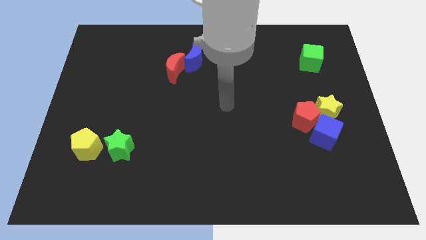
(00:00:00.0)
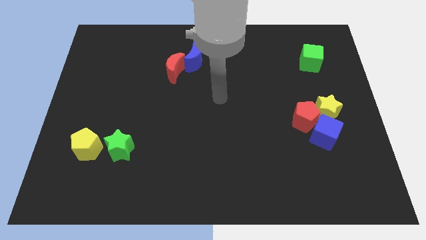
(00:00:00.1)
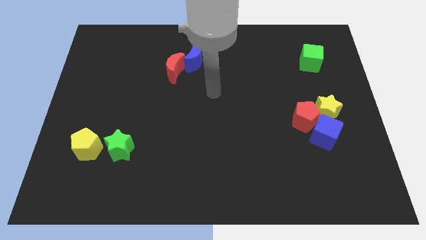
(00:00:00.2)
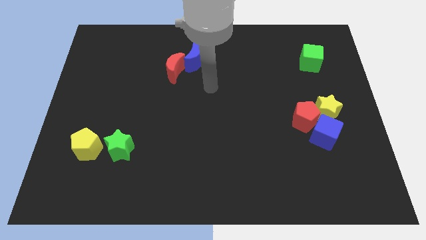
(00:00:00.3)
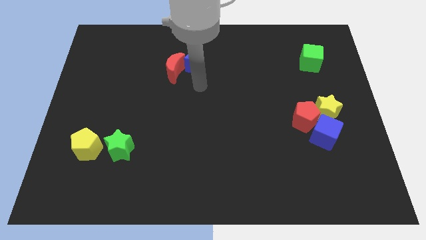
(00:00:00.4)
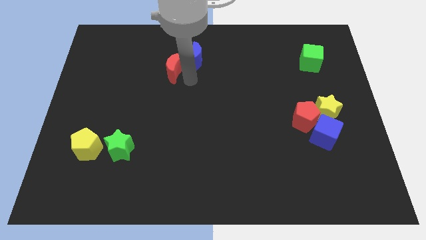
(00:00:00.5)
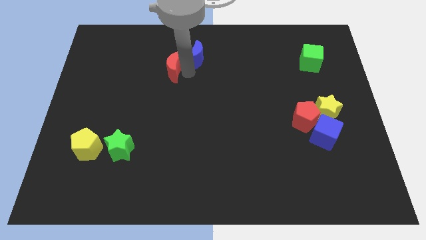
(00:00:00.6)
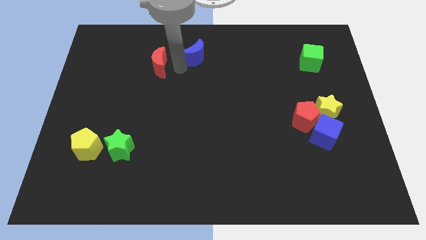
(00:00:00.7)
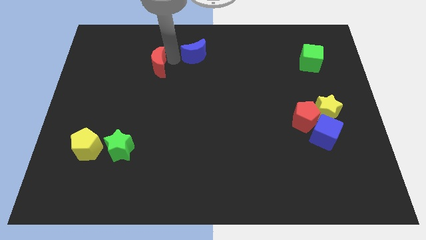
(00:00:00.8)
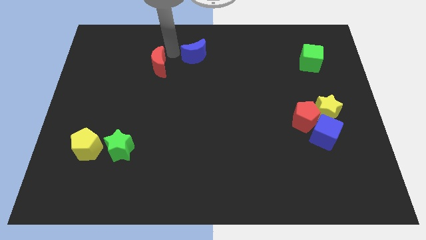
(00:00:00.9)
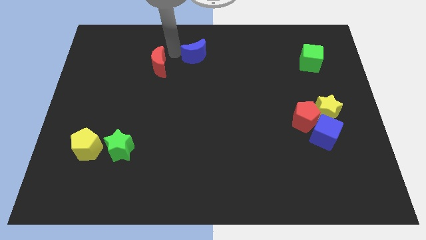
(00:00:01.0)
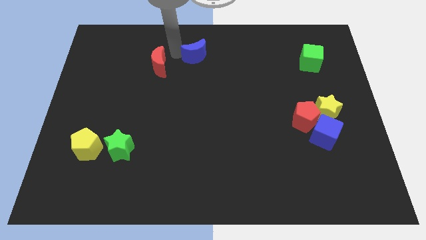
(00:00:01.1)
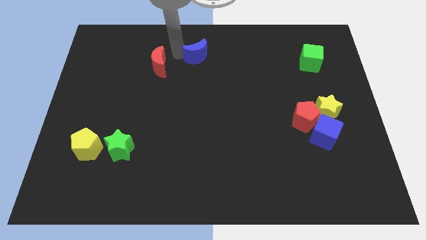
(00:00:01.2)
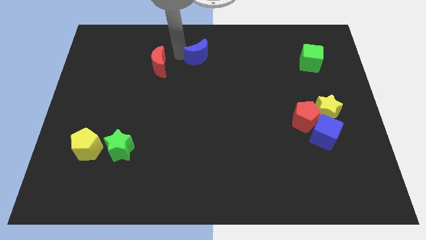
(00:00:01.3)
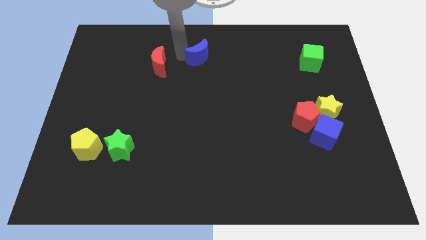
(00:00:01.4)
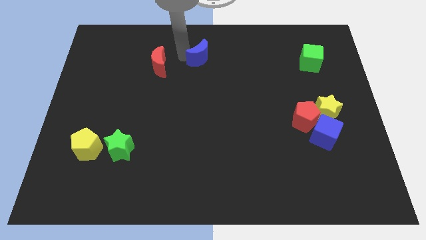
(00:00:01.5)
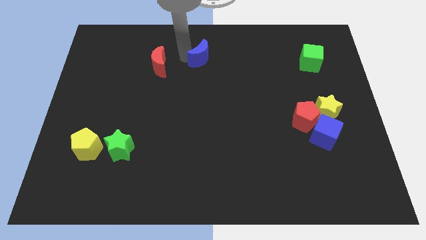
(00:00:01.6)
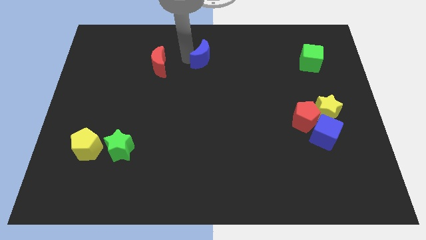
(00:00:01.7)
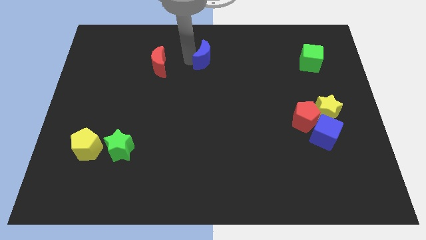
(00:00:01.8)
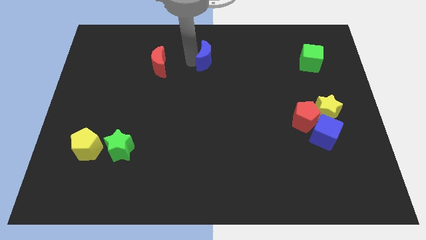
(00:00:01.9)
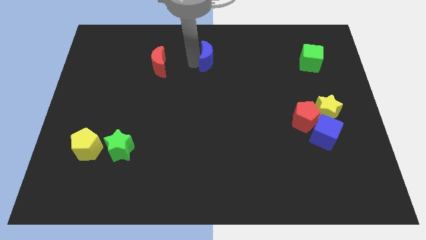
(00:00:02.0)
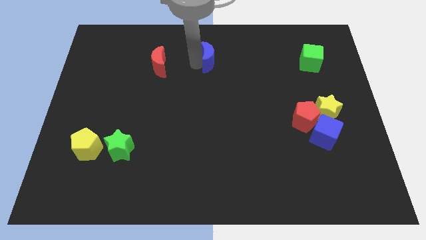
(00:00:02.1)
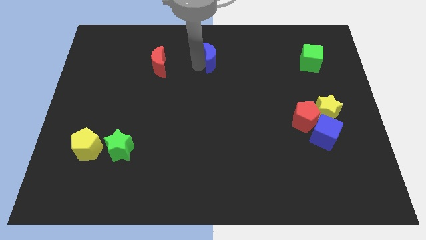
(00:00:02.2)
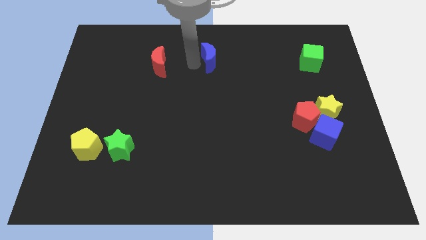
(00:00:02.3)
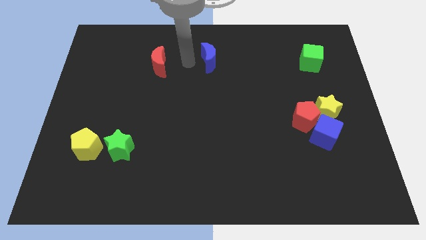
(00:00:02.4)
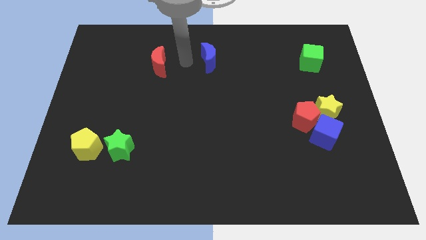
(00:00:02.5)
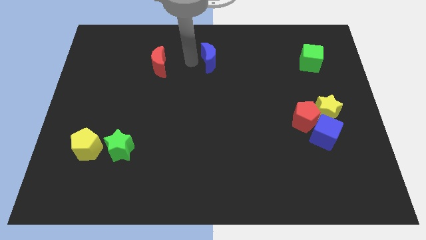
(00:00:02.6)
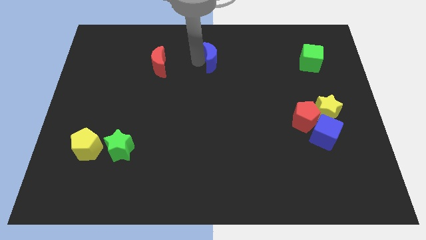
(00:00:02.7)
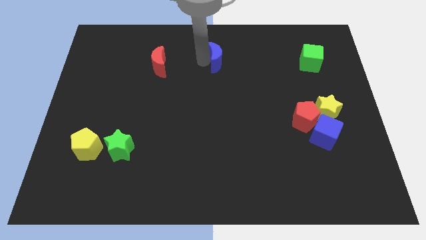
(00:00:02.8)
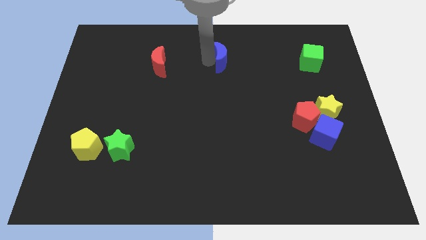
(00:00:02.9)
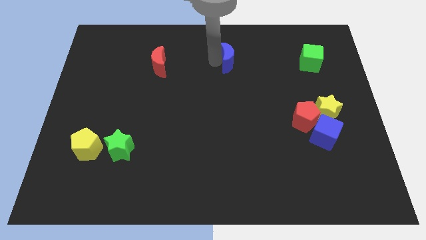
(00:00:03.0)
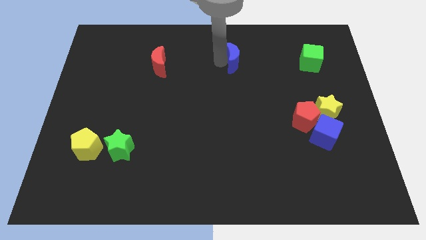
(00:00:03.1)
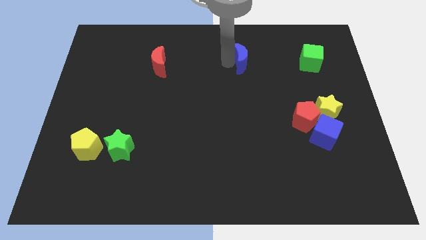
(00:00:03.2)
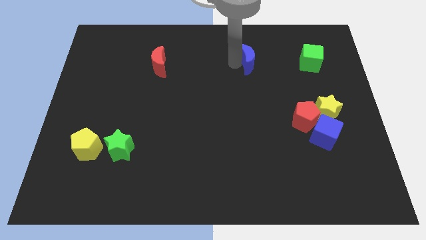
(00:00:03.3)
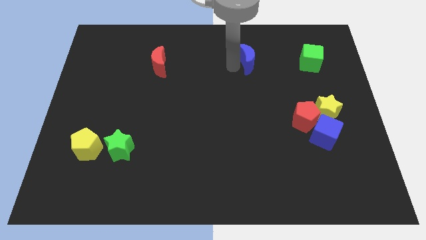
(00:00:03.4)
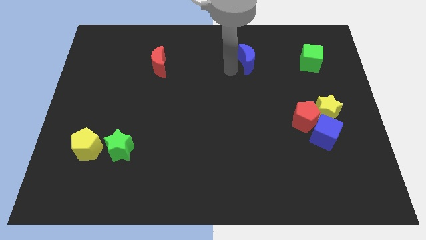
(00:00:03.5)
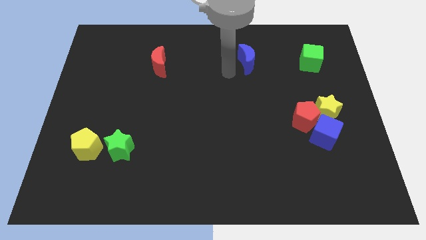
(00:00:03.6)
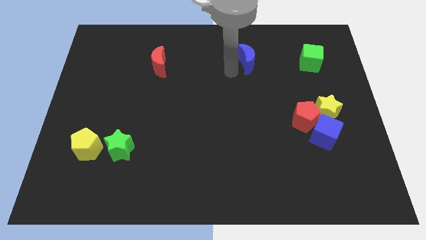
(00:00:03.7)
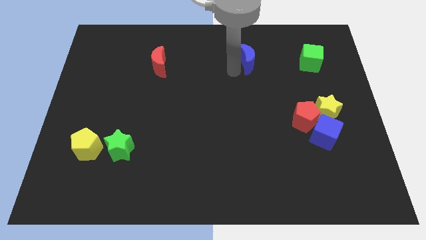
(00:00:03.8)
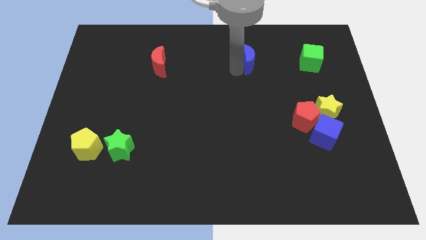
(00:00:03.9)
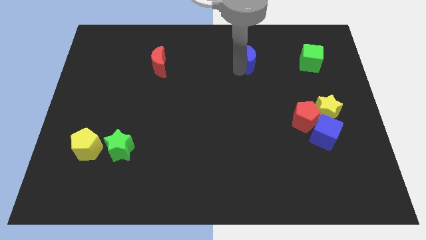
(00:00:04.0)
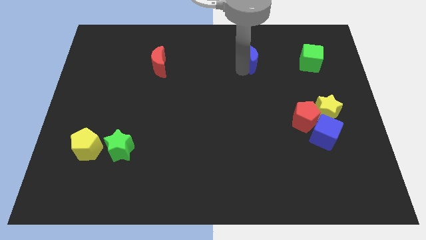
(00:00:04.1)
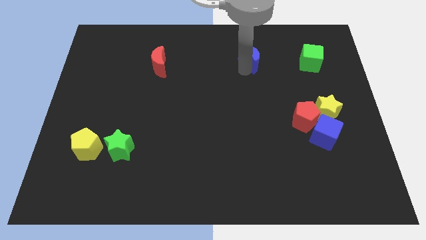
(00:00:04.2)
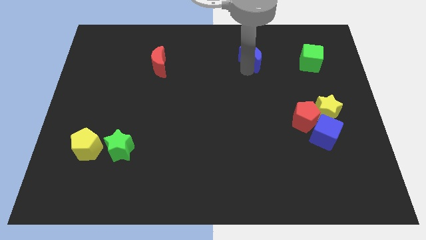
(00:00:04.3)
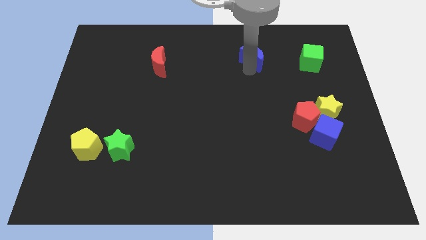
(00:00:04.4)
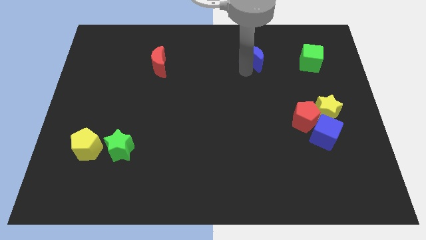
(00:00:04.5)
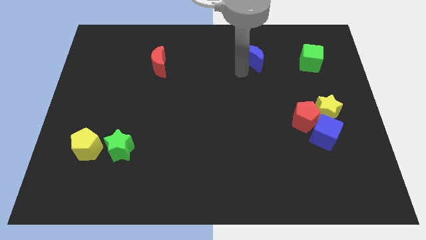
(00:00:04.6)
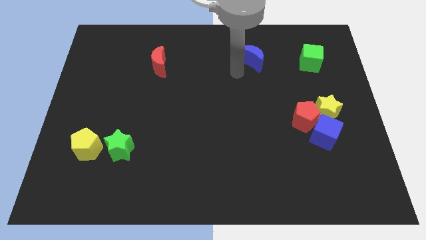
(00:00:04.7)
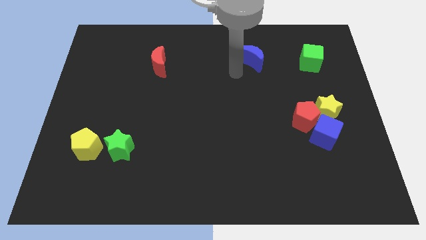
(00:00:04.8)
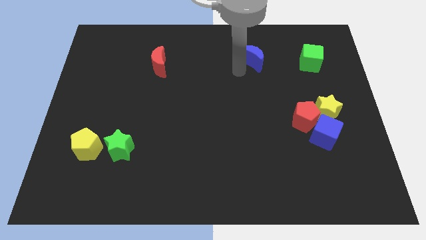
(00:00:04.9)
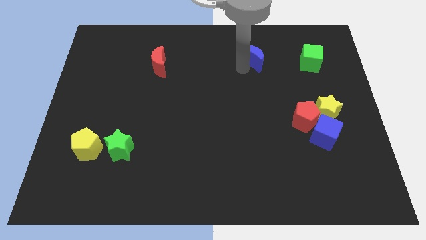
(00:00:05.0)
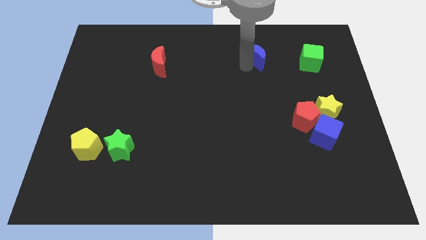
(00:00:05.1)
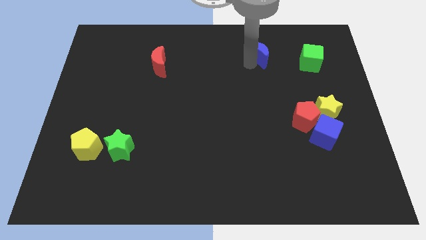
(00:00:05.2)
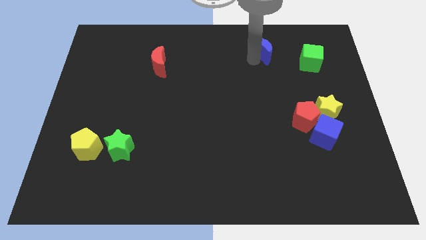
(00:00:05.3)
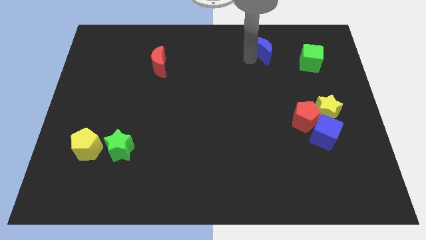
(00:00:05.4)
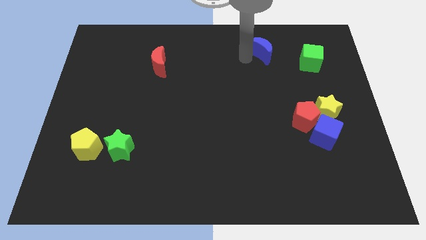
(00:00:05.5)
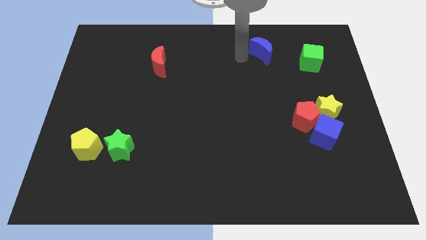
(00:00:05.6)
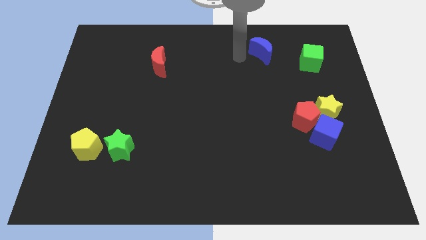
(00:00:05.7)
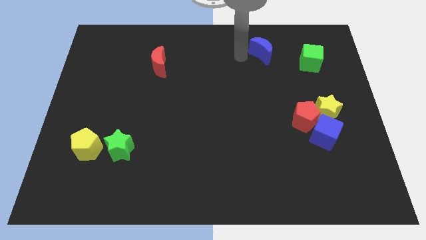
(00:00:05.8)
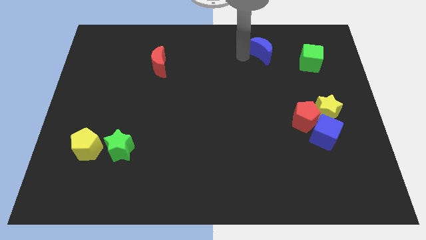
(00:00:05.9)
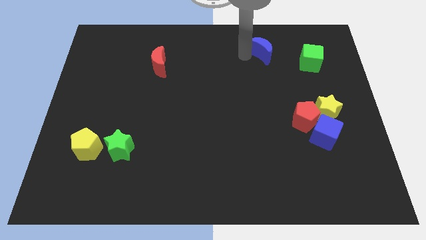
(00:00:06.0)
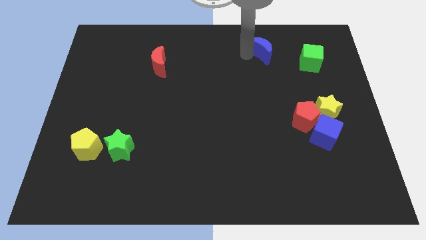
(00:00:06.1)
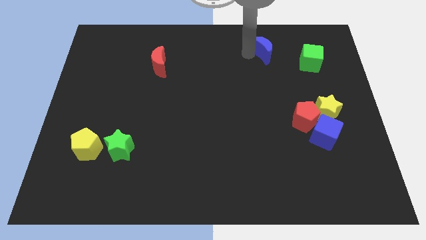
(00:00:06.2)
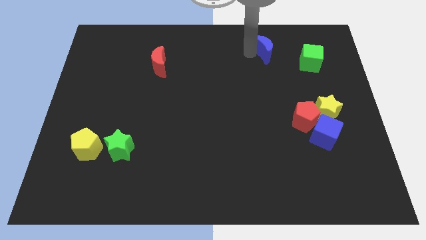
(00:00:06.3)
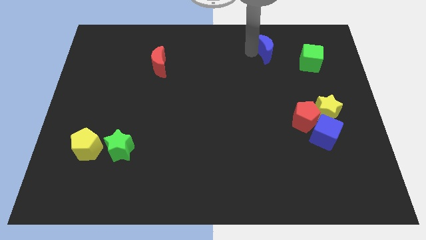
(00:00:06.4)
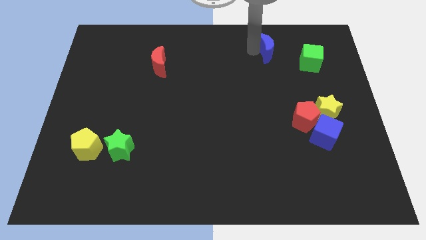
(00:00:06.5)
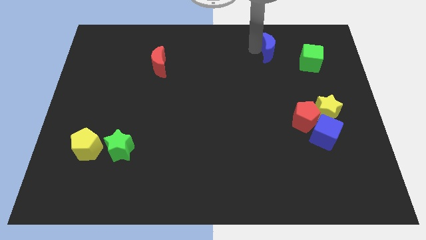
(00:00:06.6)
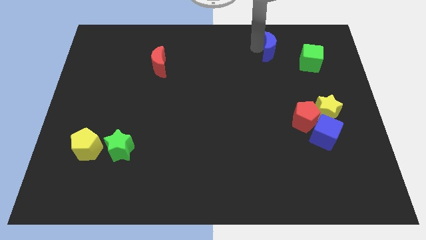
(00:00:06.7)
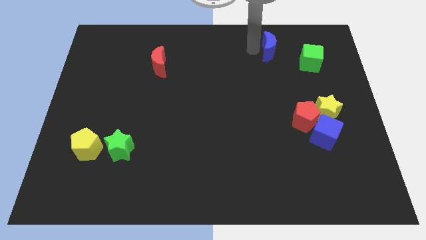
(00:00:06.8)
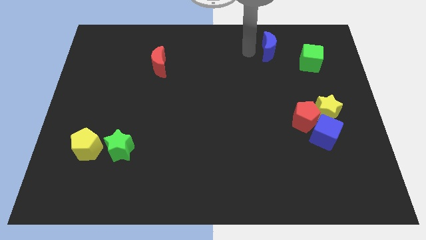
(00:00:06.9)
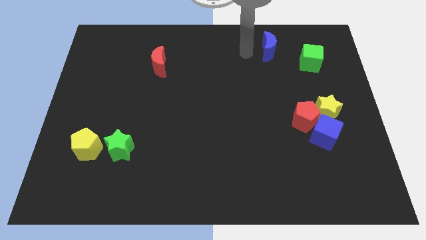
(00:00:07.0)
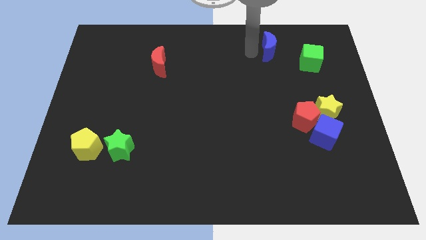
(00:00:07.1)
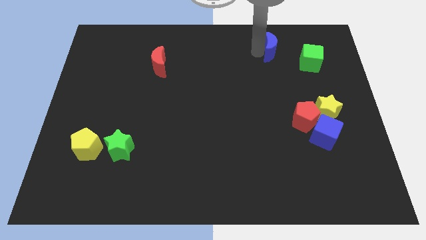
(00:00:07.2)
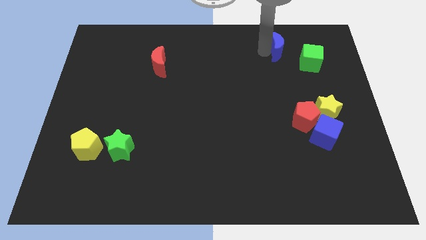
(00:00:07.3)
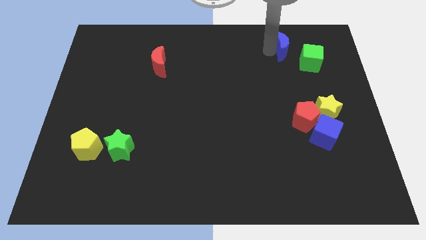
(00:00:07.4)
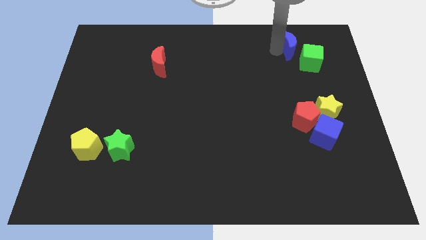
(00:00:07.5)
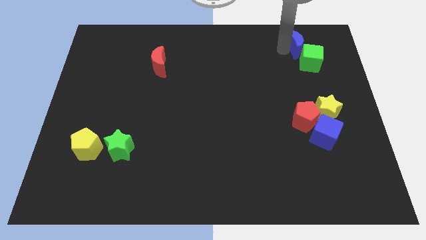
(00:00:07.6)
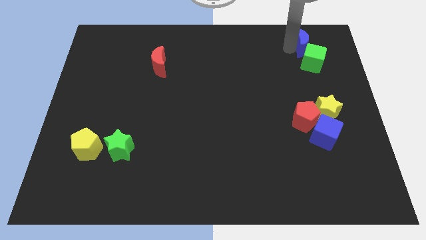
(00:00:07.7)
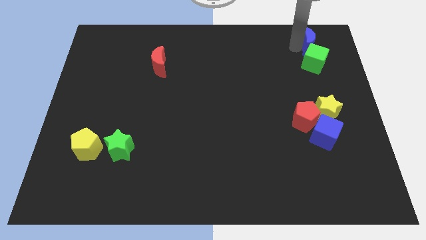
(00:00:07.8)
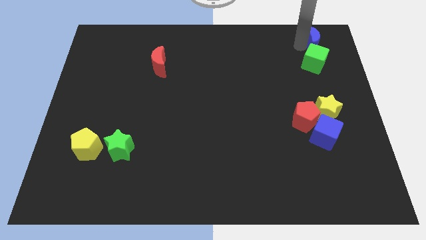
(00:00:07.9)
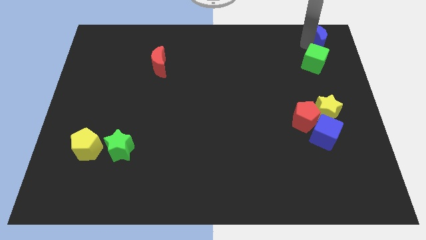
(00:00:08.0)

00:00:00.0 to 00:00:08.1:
push the blue moon to the top right of the board
